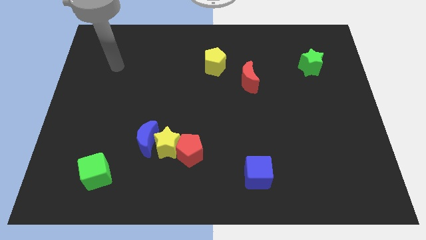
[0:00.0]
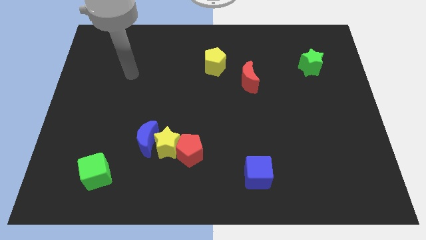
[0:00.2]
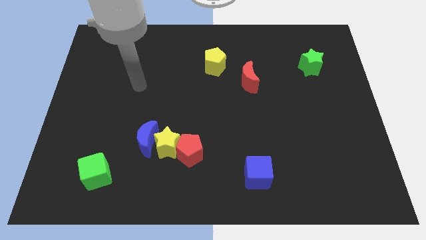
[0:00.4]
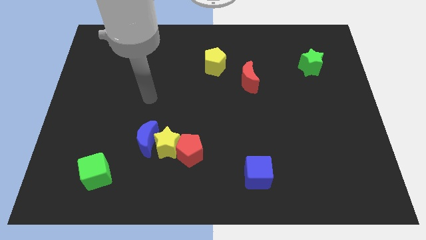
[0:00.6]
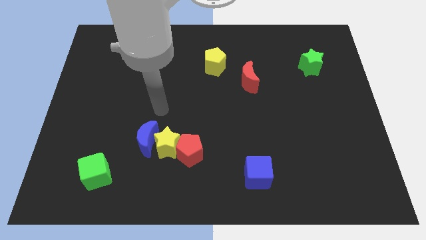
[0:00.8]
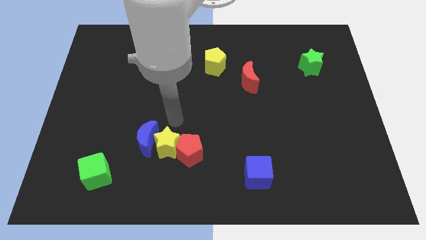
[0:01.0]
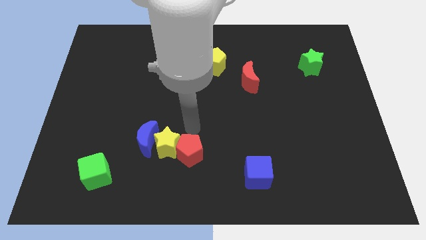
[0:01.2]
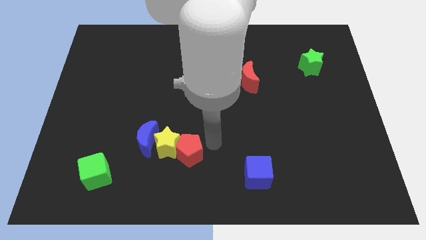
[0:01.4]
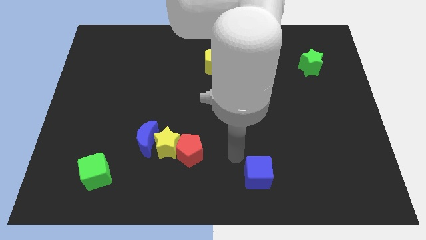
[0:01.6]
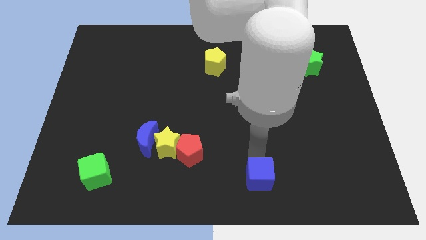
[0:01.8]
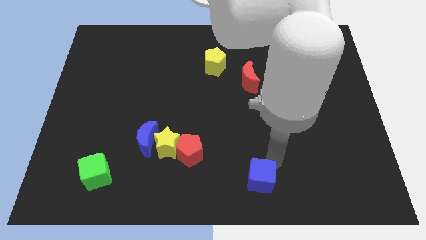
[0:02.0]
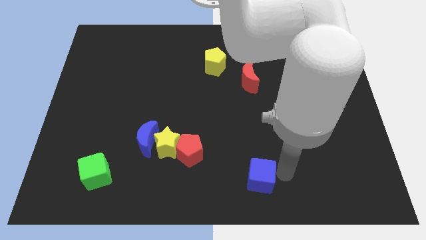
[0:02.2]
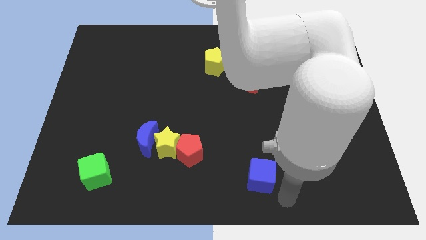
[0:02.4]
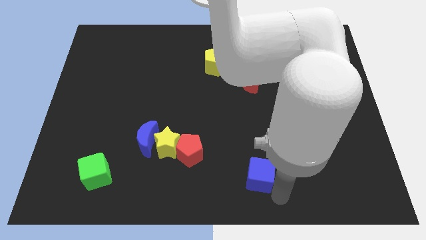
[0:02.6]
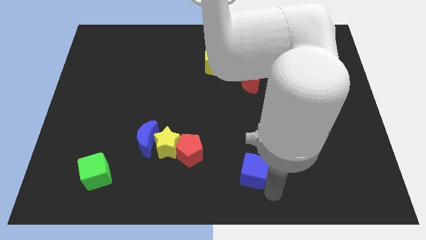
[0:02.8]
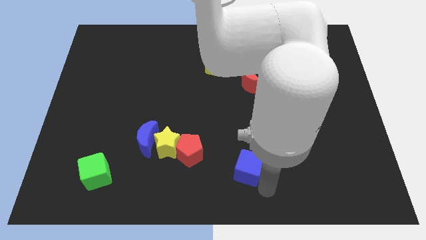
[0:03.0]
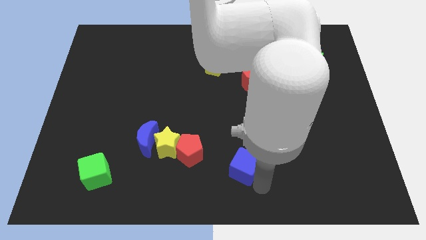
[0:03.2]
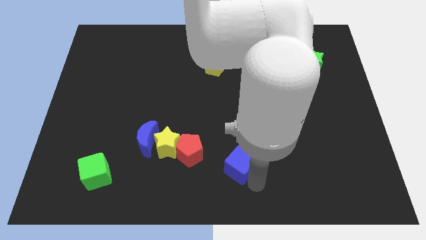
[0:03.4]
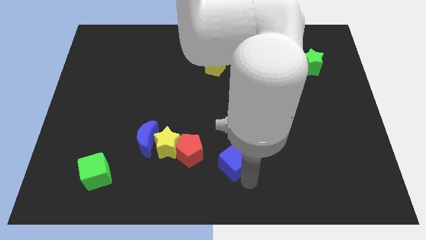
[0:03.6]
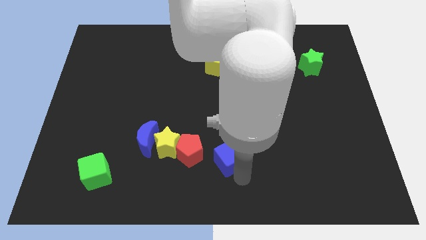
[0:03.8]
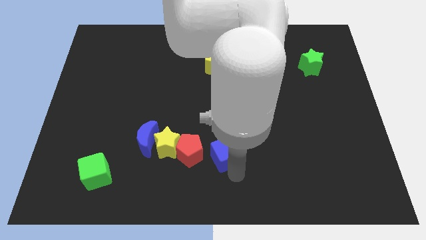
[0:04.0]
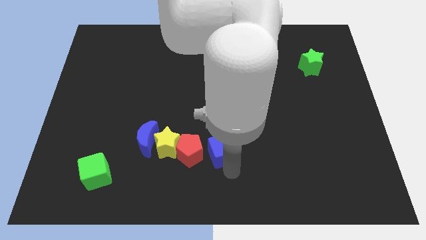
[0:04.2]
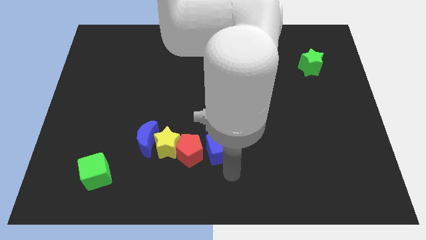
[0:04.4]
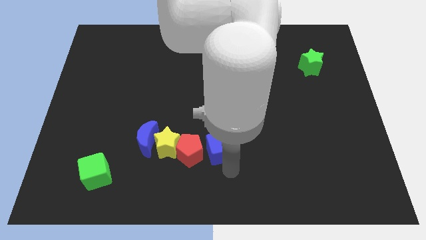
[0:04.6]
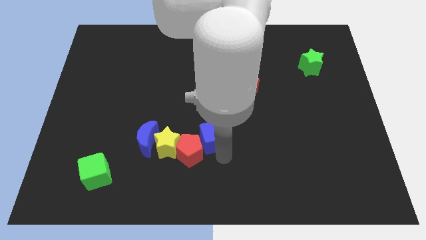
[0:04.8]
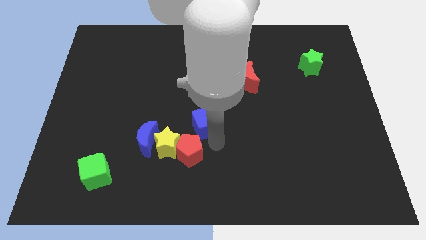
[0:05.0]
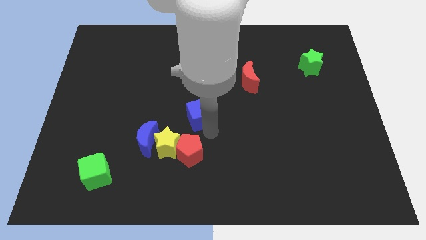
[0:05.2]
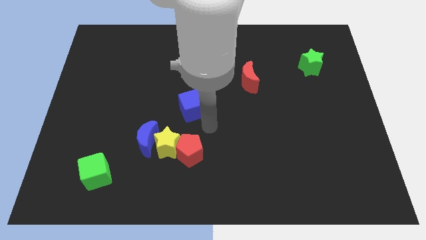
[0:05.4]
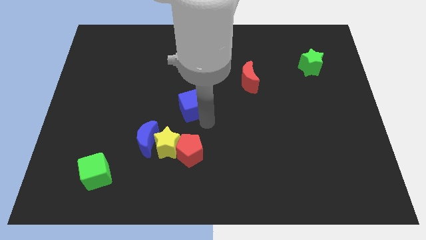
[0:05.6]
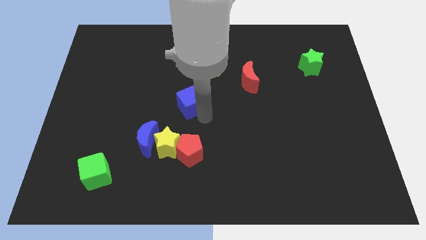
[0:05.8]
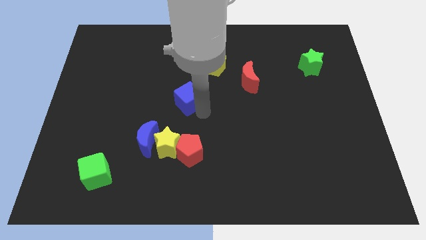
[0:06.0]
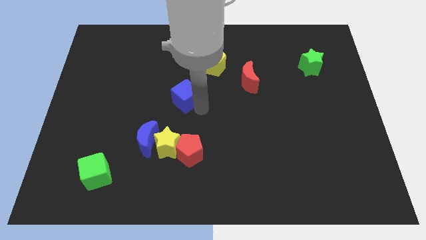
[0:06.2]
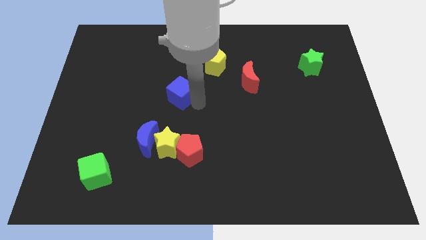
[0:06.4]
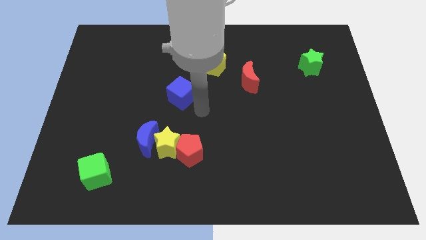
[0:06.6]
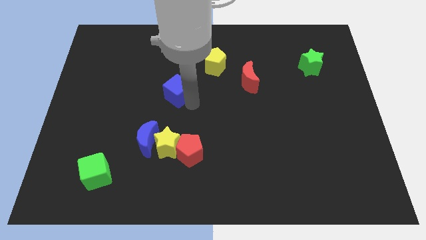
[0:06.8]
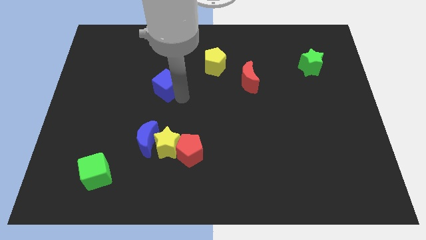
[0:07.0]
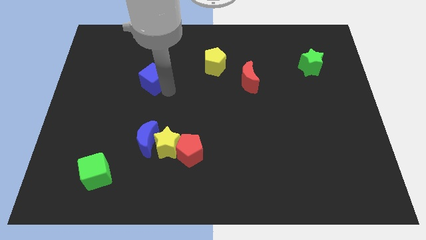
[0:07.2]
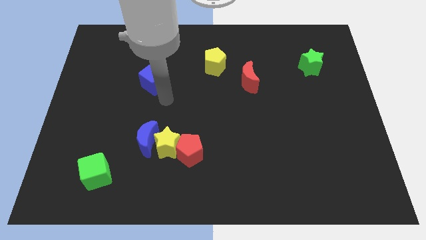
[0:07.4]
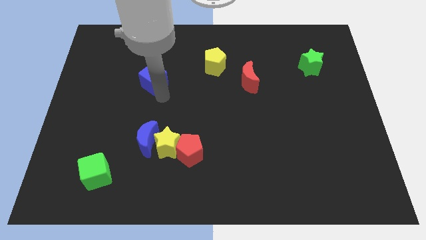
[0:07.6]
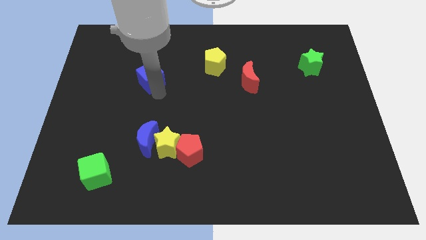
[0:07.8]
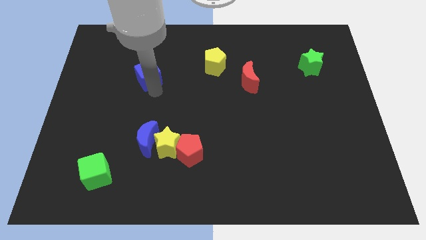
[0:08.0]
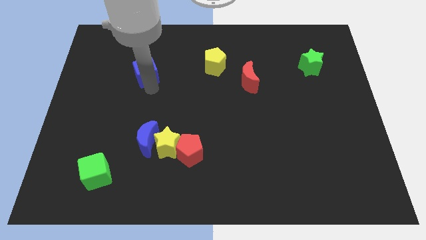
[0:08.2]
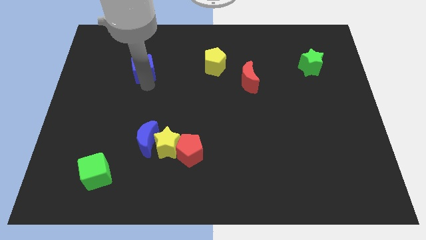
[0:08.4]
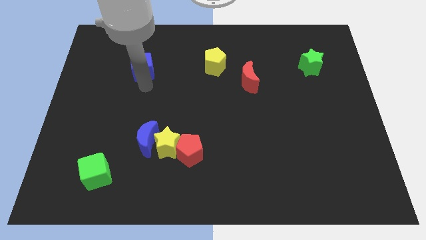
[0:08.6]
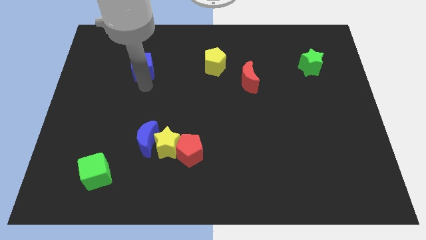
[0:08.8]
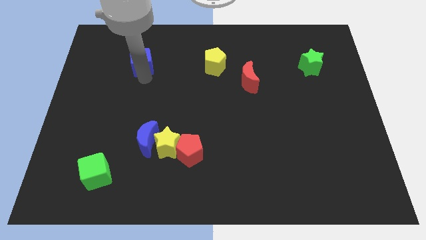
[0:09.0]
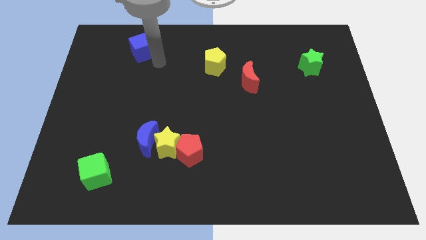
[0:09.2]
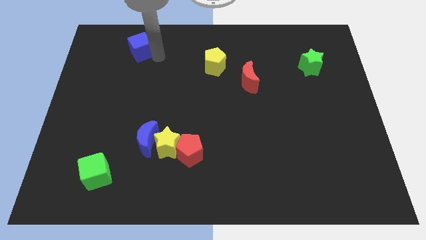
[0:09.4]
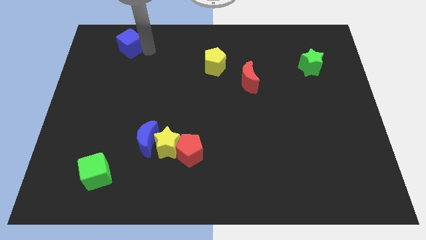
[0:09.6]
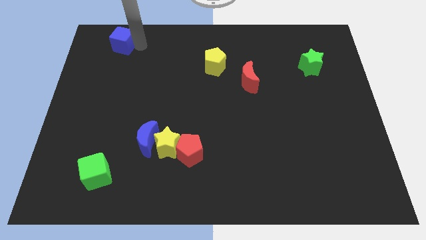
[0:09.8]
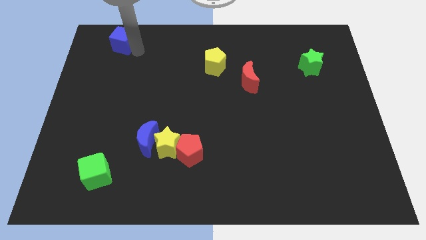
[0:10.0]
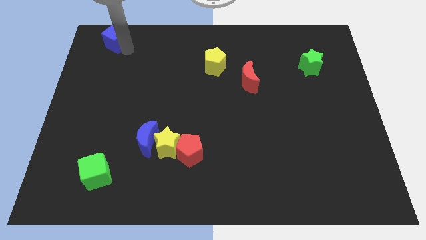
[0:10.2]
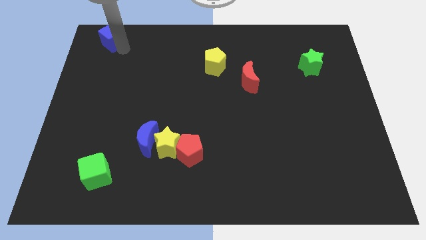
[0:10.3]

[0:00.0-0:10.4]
move the blue cube to the top left

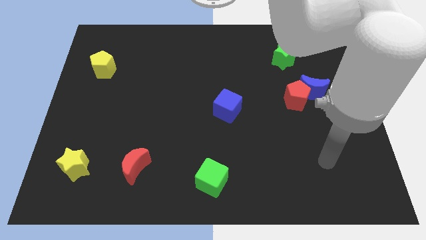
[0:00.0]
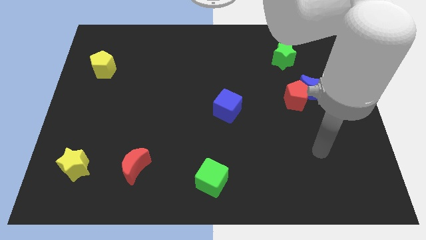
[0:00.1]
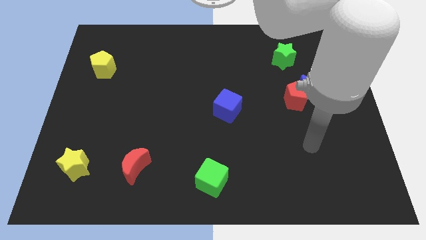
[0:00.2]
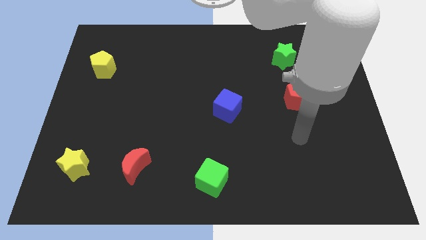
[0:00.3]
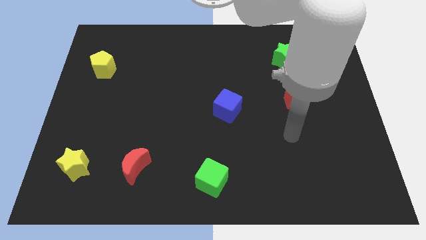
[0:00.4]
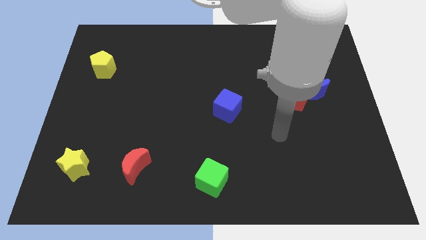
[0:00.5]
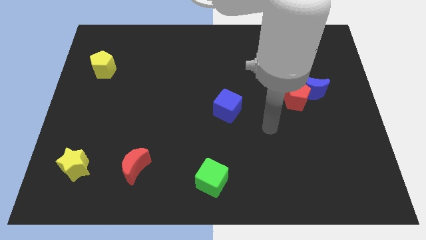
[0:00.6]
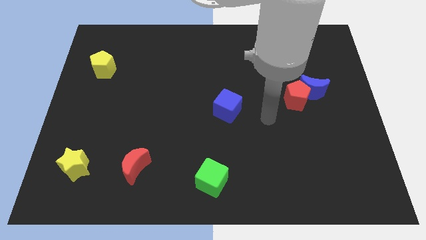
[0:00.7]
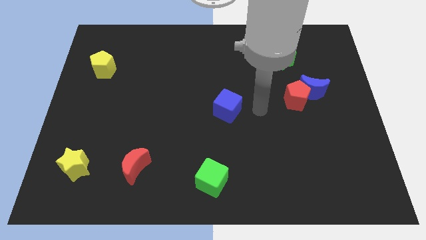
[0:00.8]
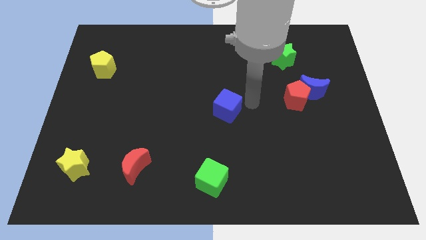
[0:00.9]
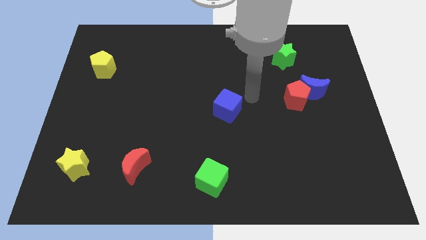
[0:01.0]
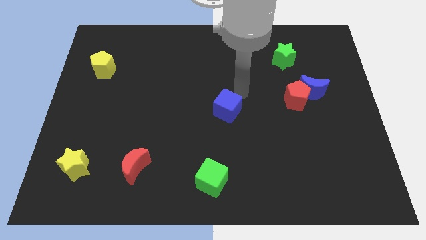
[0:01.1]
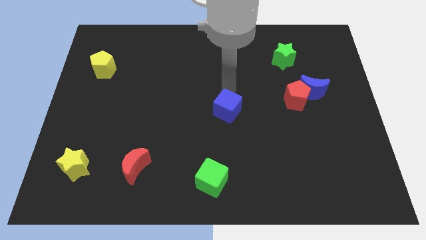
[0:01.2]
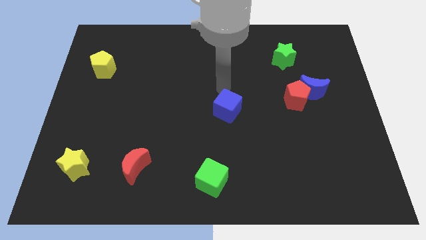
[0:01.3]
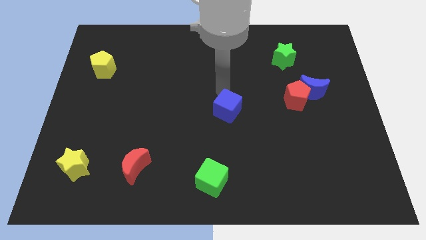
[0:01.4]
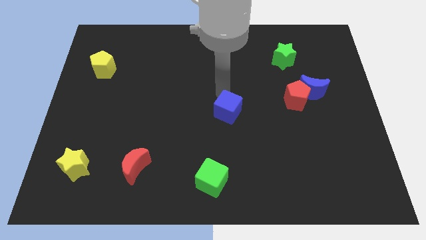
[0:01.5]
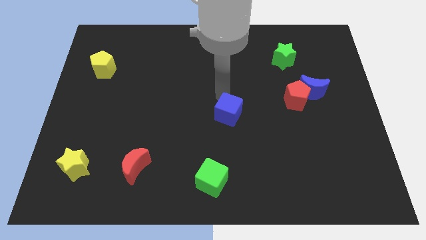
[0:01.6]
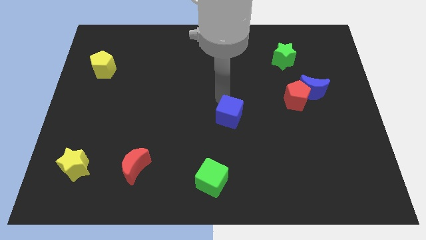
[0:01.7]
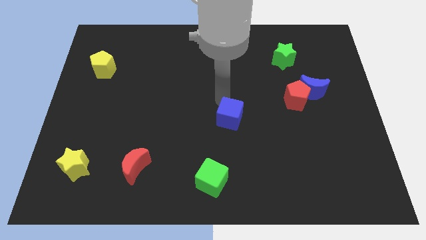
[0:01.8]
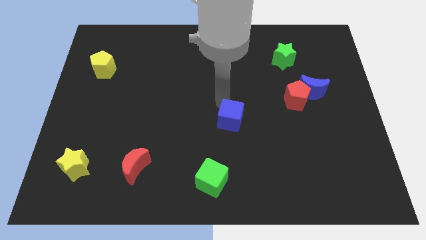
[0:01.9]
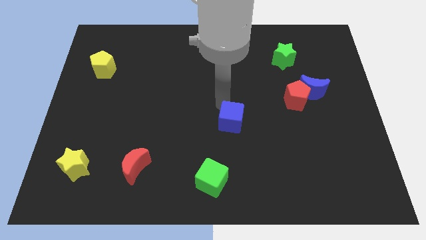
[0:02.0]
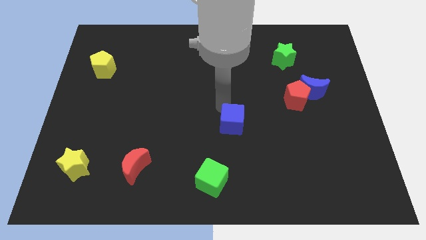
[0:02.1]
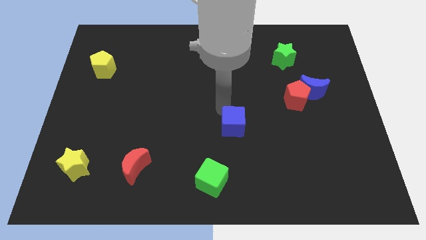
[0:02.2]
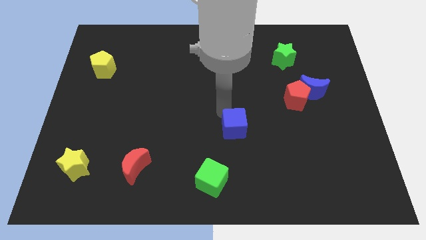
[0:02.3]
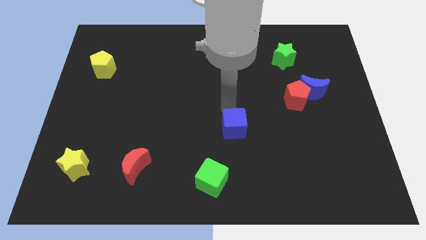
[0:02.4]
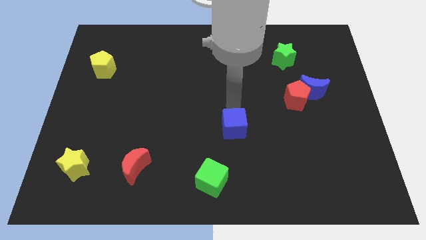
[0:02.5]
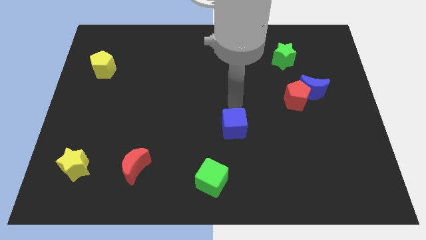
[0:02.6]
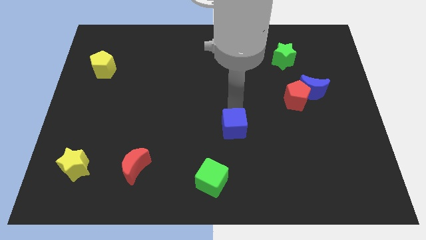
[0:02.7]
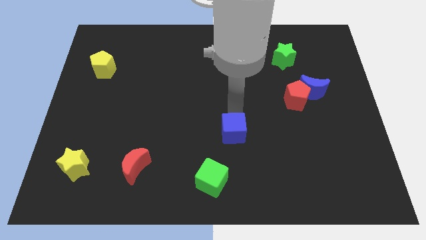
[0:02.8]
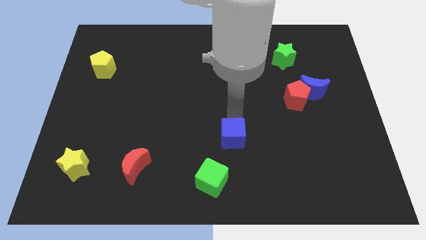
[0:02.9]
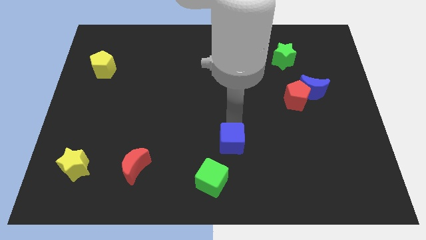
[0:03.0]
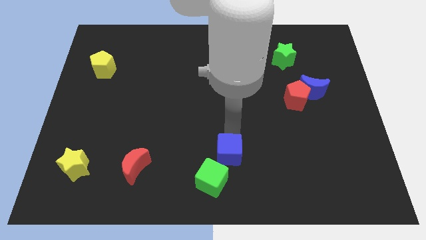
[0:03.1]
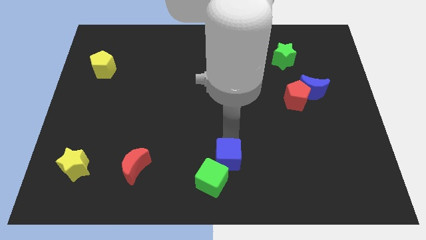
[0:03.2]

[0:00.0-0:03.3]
put the blue cube to the bottom
